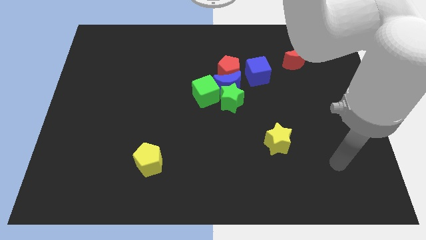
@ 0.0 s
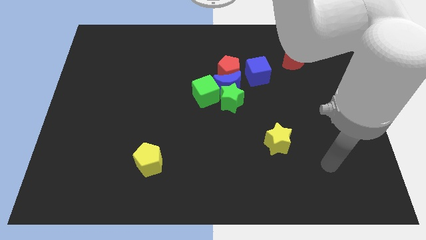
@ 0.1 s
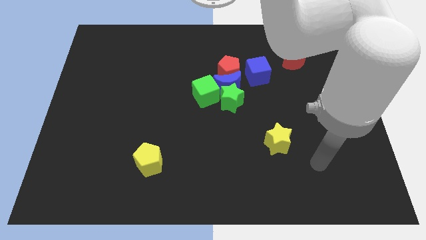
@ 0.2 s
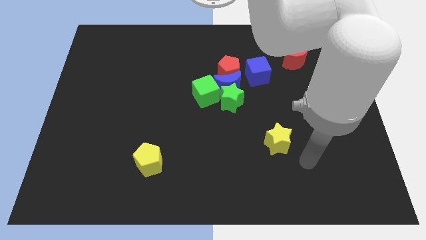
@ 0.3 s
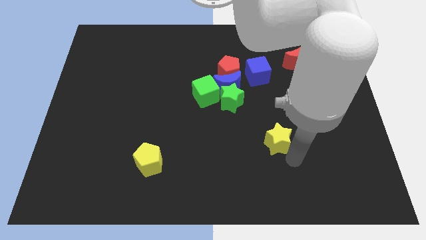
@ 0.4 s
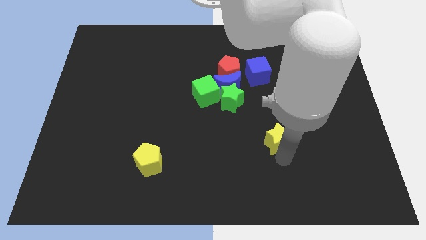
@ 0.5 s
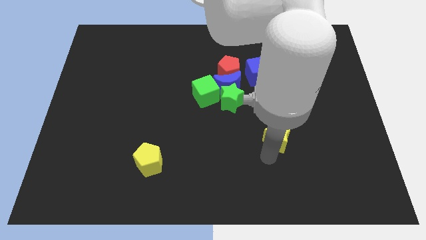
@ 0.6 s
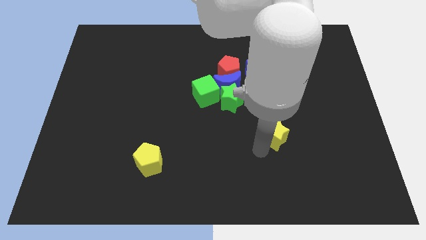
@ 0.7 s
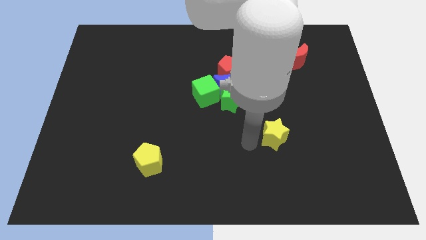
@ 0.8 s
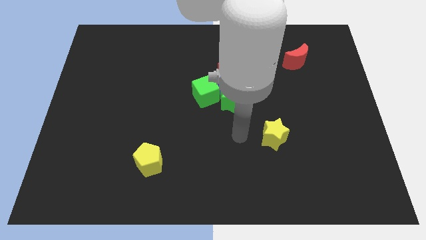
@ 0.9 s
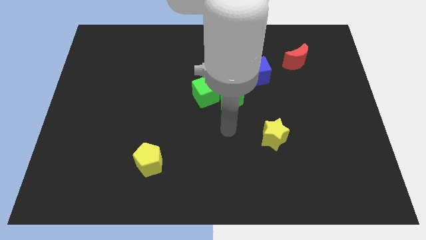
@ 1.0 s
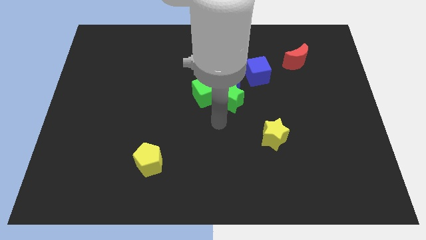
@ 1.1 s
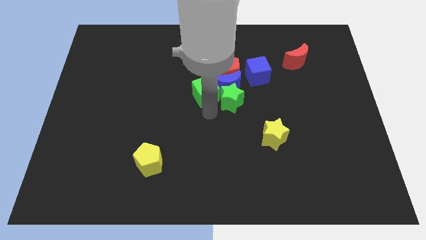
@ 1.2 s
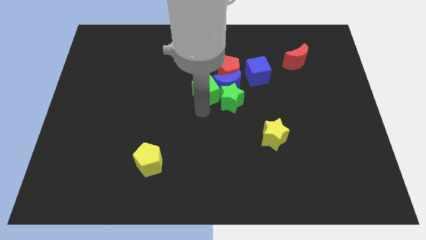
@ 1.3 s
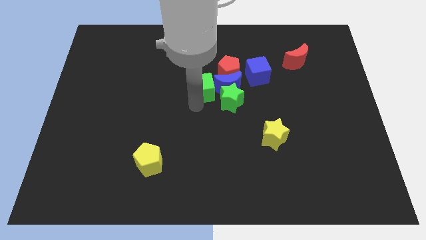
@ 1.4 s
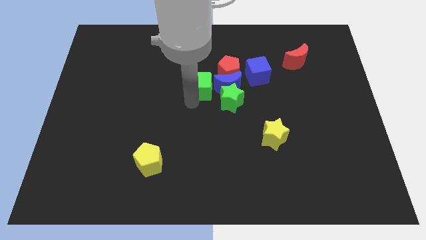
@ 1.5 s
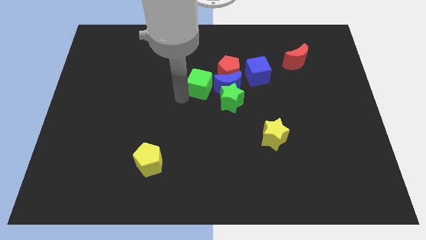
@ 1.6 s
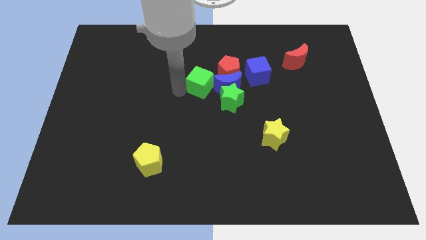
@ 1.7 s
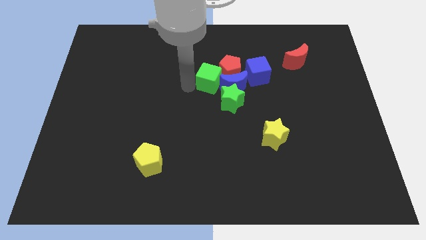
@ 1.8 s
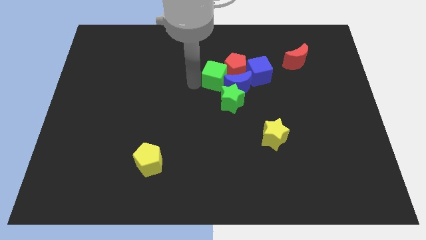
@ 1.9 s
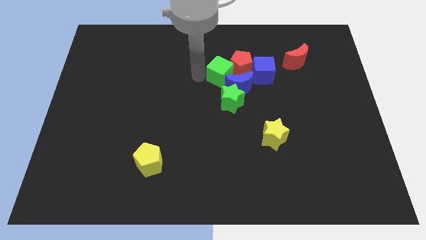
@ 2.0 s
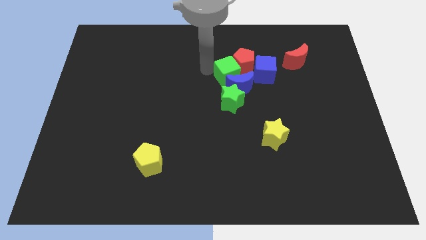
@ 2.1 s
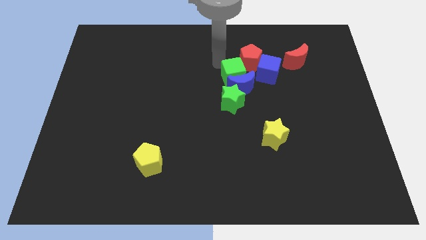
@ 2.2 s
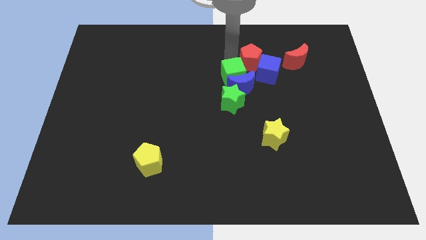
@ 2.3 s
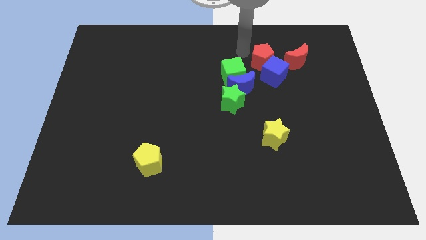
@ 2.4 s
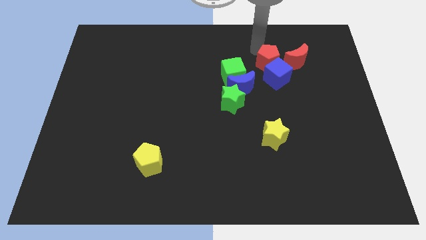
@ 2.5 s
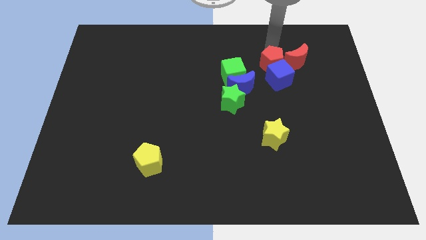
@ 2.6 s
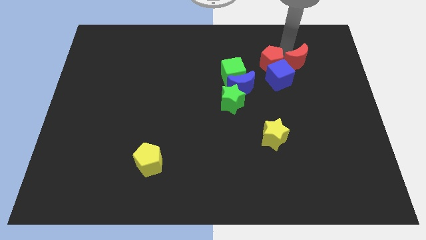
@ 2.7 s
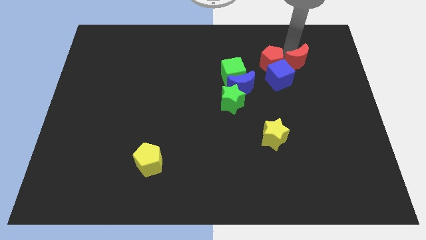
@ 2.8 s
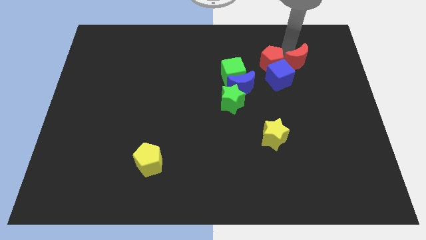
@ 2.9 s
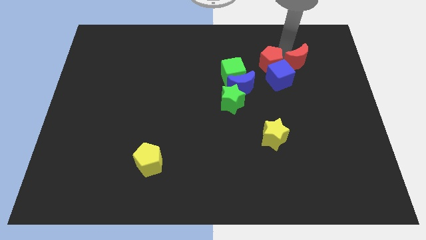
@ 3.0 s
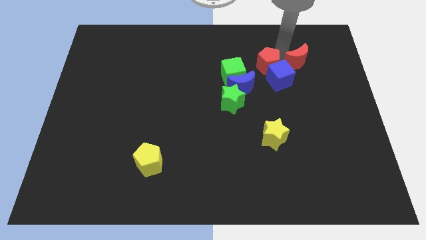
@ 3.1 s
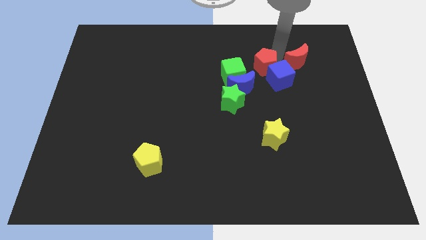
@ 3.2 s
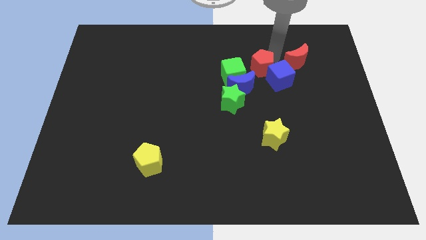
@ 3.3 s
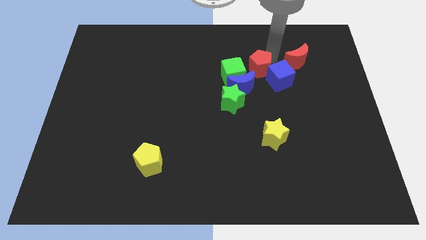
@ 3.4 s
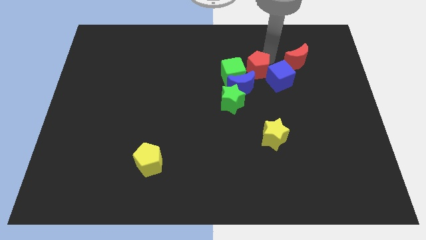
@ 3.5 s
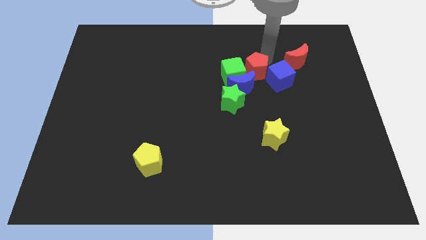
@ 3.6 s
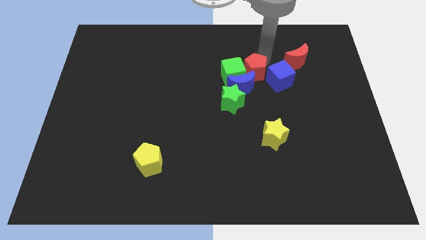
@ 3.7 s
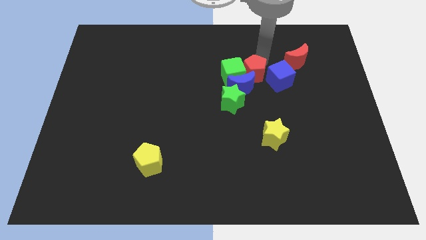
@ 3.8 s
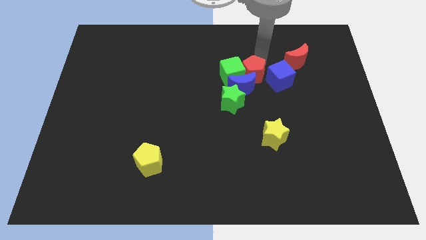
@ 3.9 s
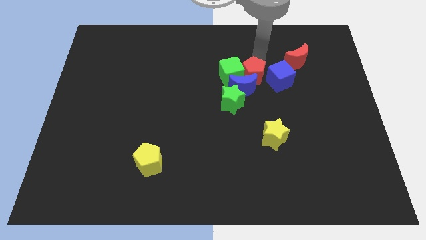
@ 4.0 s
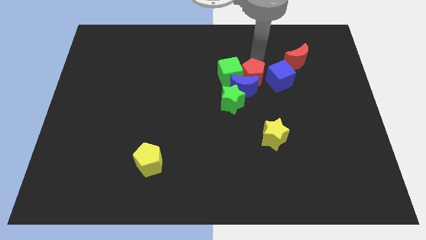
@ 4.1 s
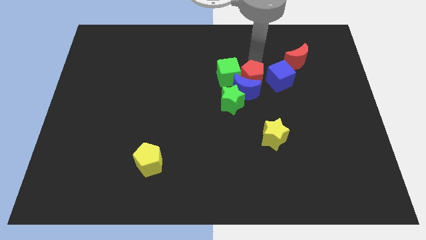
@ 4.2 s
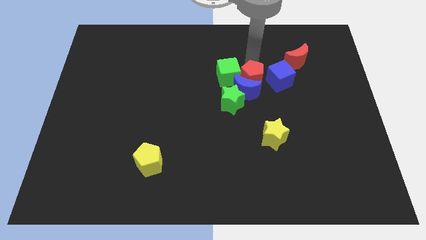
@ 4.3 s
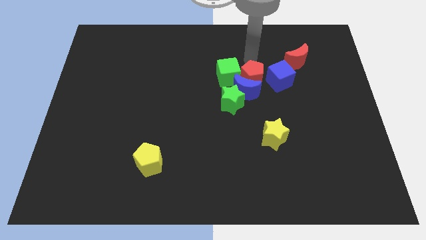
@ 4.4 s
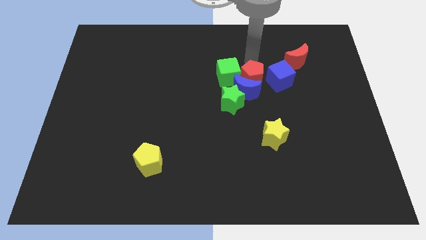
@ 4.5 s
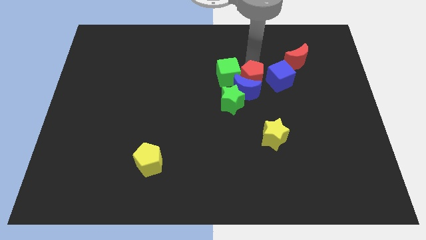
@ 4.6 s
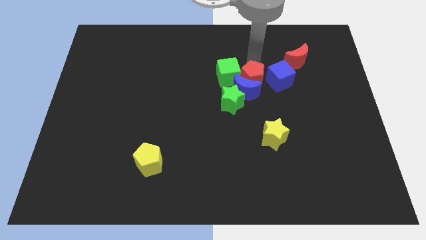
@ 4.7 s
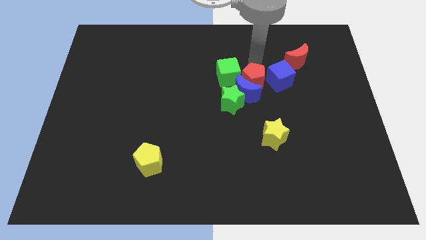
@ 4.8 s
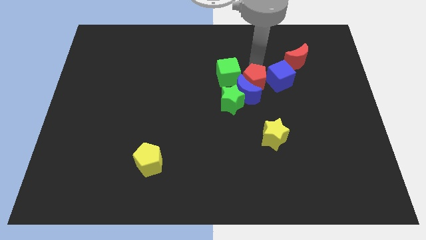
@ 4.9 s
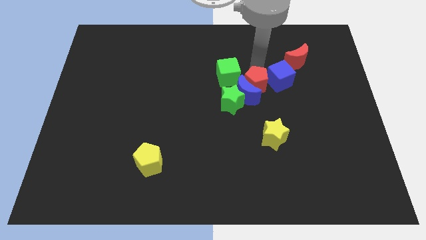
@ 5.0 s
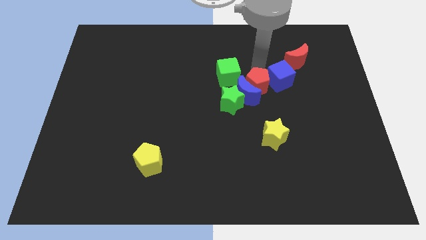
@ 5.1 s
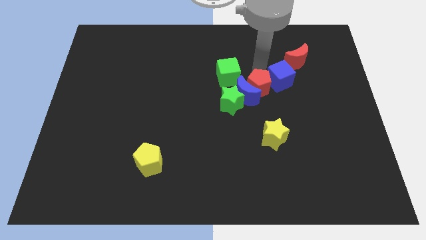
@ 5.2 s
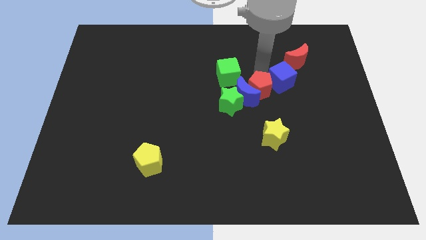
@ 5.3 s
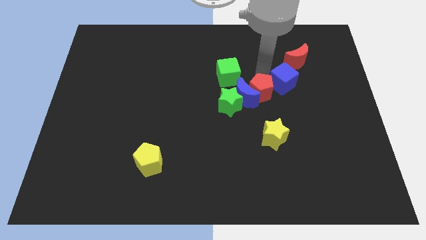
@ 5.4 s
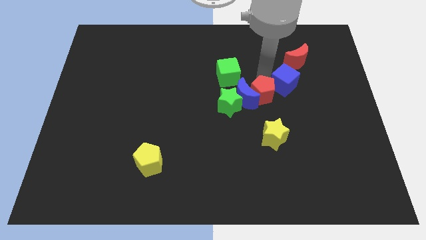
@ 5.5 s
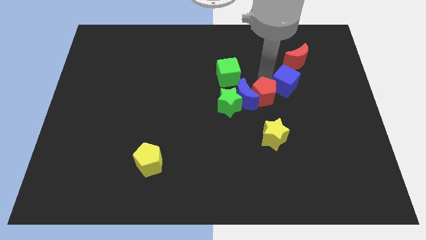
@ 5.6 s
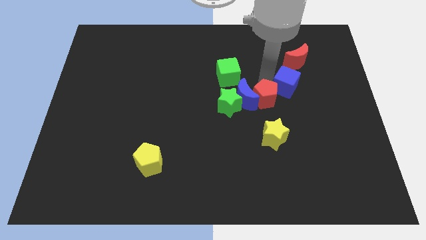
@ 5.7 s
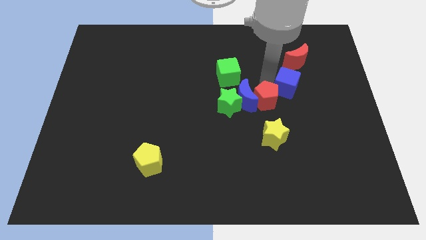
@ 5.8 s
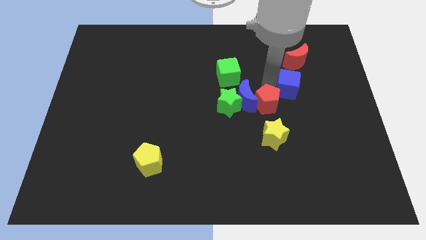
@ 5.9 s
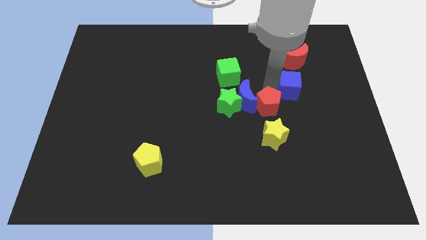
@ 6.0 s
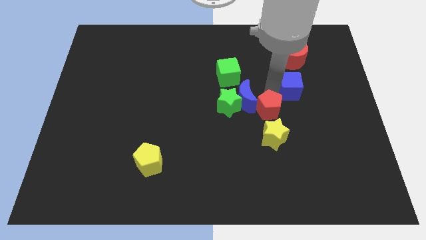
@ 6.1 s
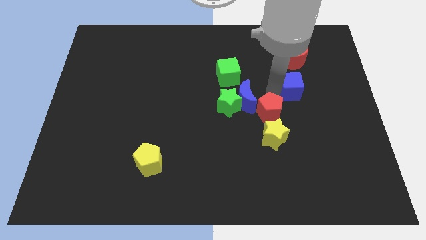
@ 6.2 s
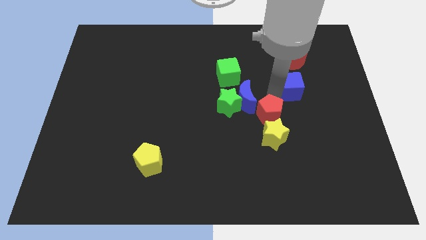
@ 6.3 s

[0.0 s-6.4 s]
move the red pentagon close to the yellow star

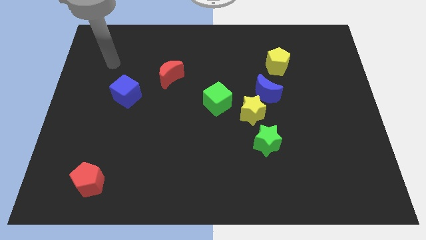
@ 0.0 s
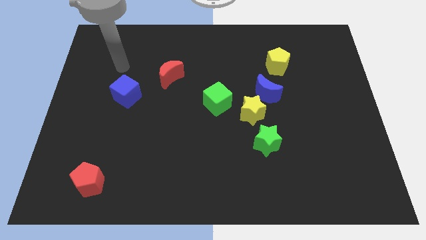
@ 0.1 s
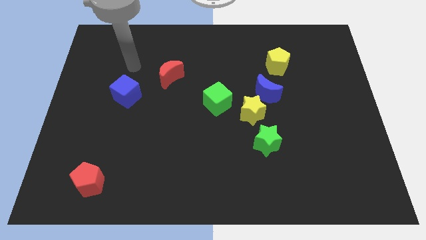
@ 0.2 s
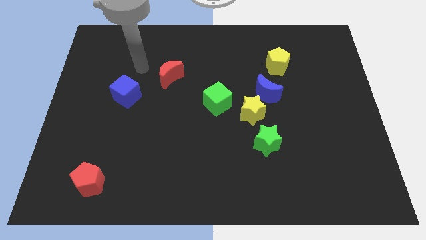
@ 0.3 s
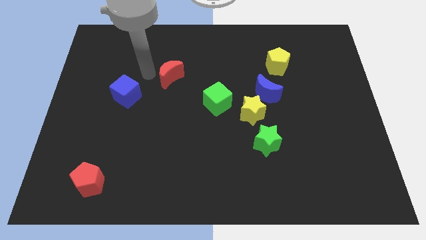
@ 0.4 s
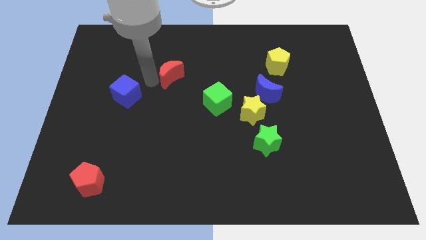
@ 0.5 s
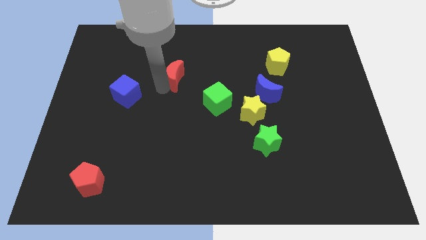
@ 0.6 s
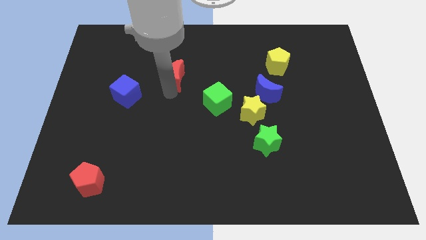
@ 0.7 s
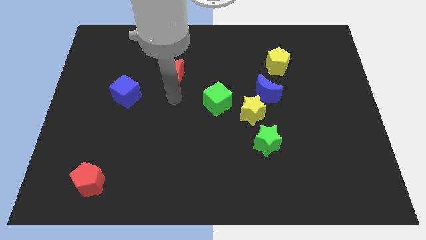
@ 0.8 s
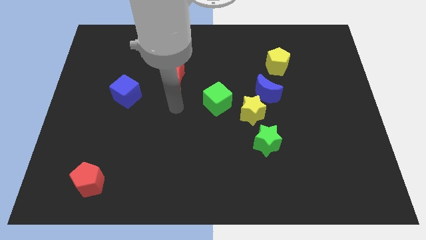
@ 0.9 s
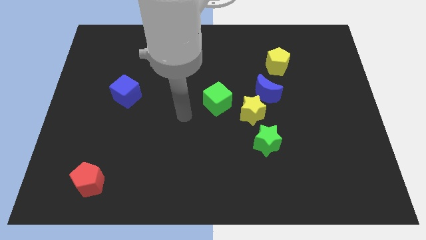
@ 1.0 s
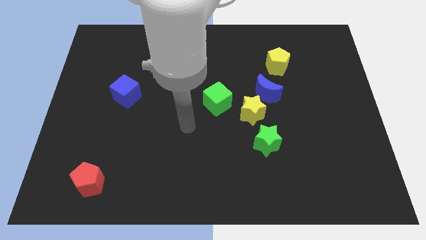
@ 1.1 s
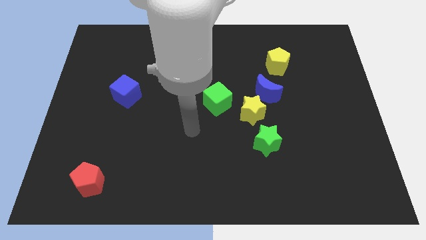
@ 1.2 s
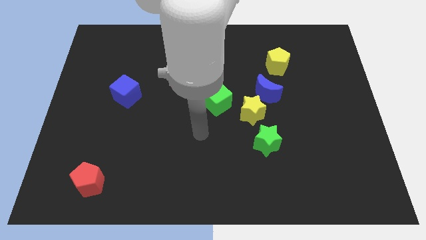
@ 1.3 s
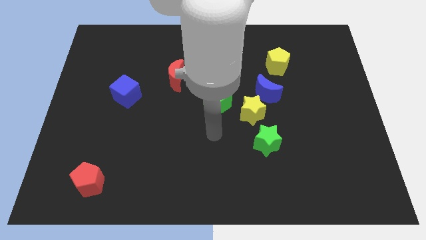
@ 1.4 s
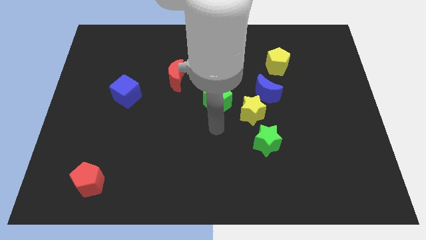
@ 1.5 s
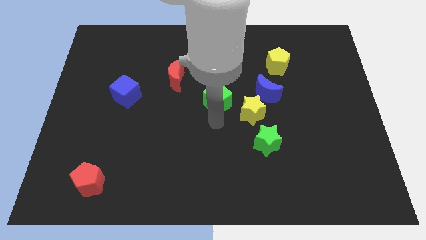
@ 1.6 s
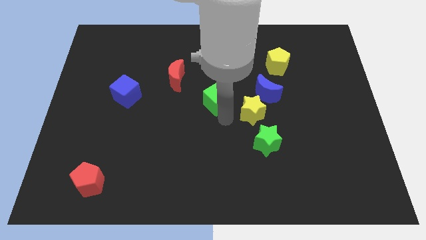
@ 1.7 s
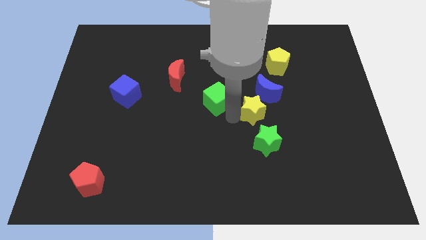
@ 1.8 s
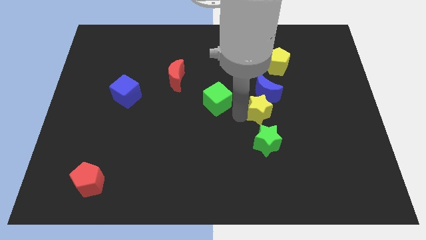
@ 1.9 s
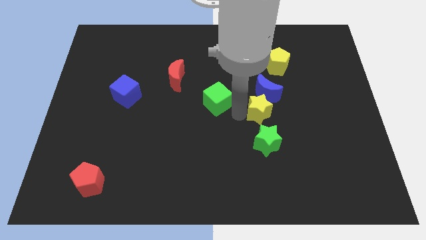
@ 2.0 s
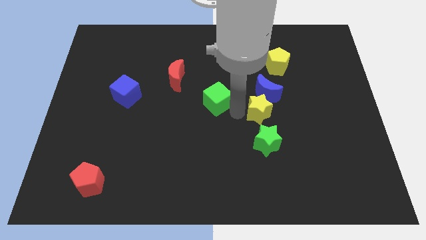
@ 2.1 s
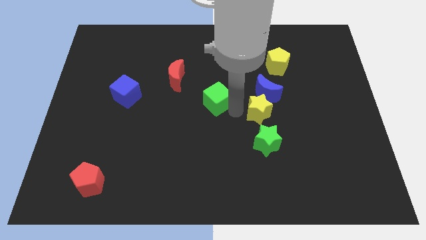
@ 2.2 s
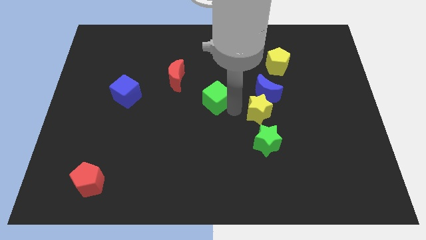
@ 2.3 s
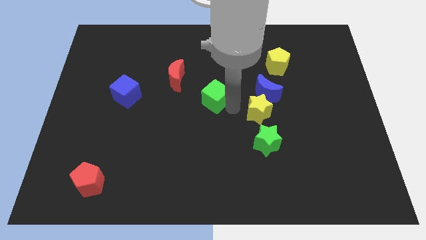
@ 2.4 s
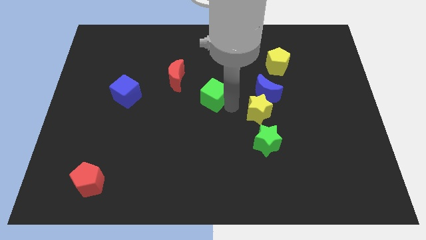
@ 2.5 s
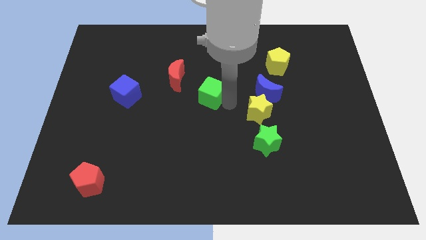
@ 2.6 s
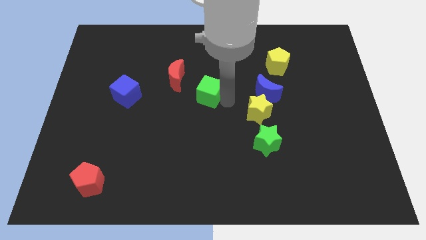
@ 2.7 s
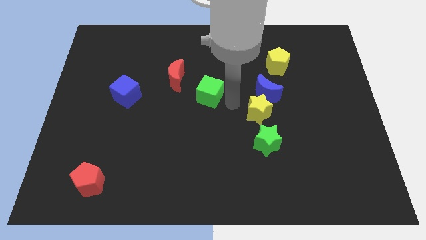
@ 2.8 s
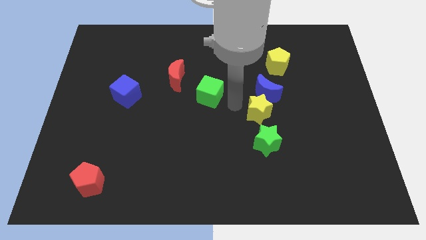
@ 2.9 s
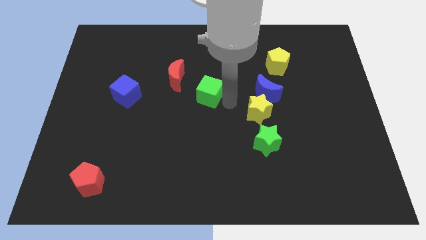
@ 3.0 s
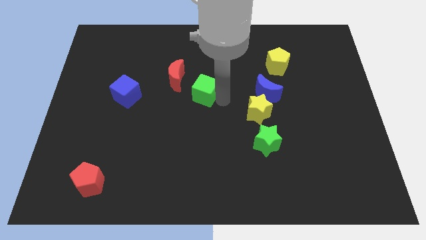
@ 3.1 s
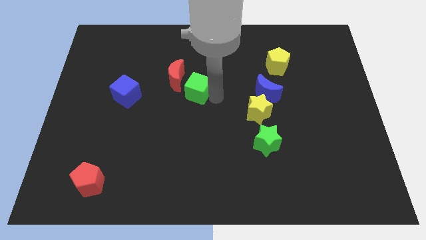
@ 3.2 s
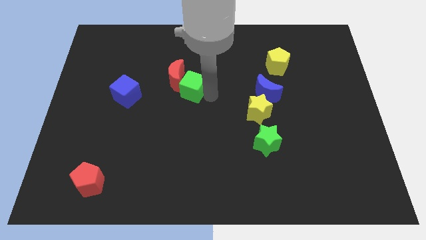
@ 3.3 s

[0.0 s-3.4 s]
push the green cube to the red moon
